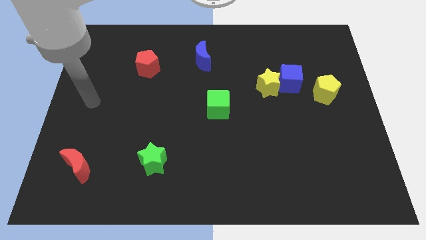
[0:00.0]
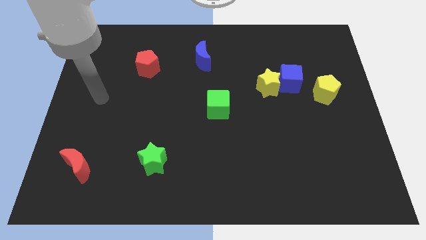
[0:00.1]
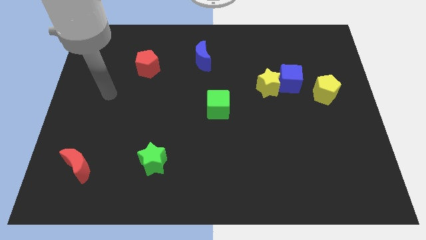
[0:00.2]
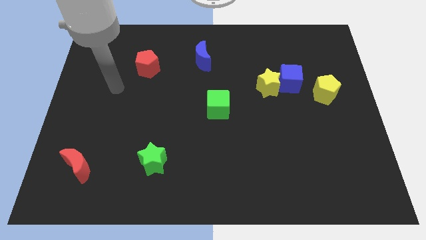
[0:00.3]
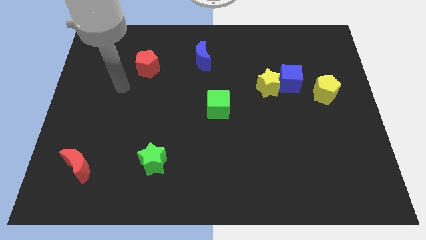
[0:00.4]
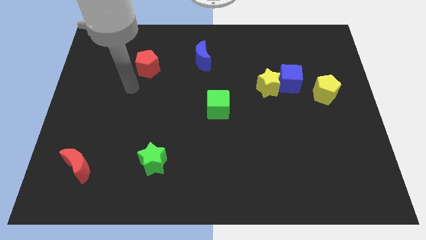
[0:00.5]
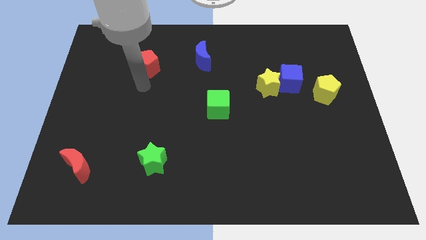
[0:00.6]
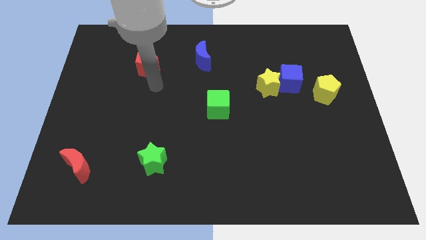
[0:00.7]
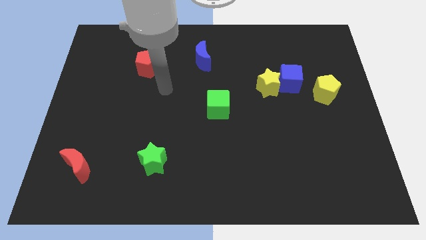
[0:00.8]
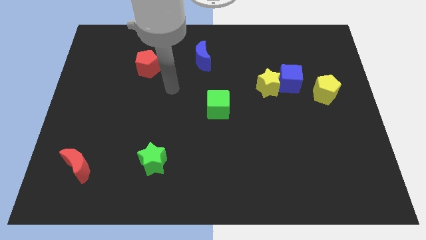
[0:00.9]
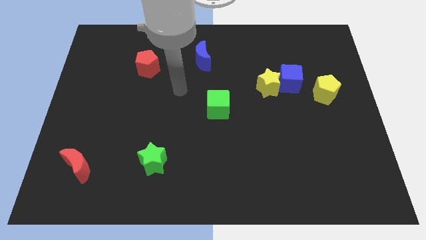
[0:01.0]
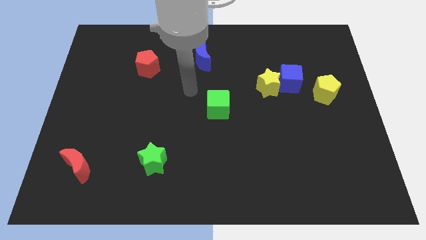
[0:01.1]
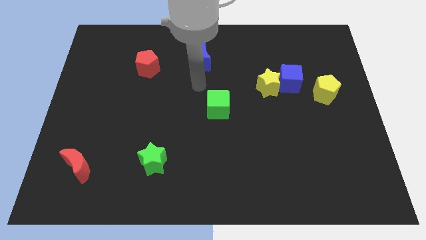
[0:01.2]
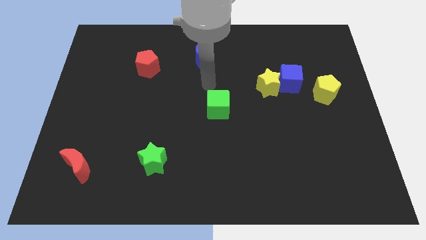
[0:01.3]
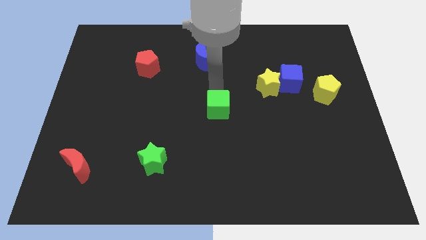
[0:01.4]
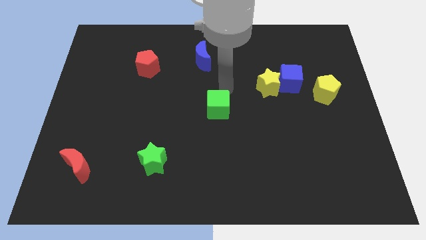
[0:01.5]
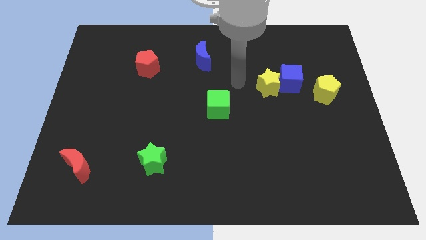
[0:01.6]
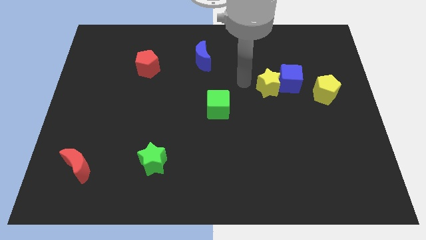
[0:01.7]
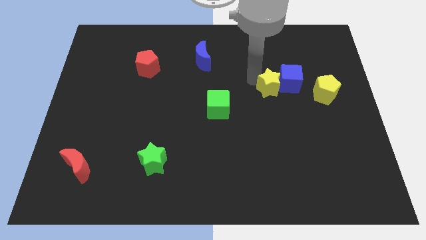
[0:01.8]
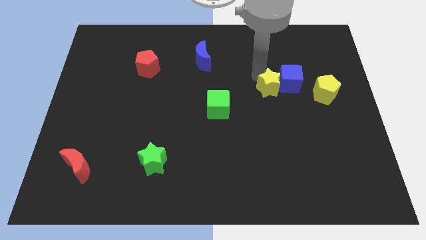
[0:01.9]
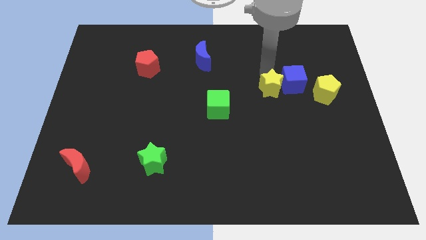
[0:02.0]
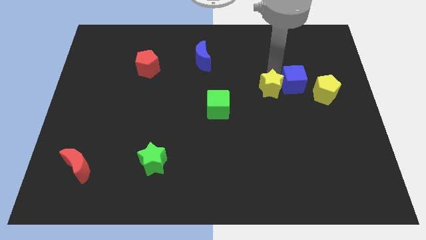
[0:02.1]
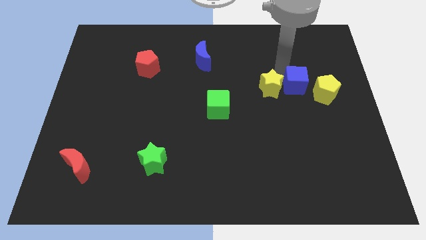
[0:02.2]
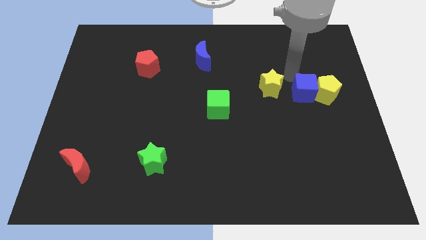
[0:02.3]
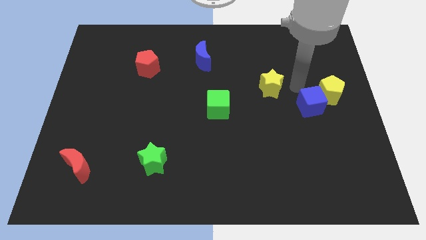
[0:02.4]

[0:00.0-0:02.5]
move the yellow star away from the blue cube

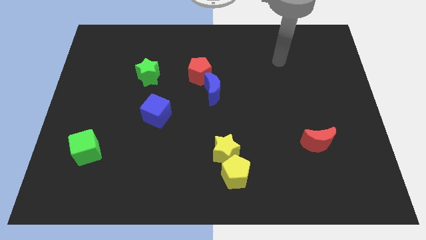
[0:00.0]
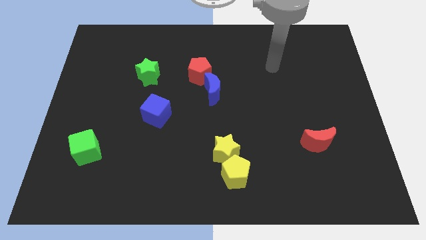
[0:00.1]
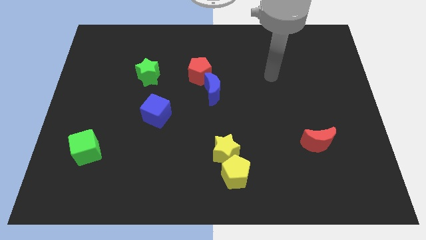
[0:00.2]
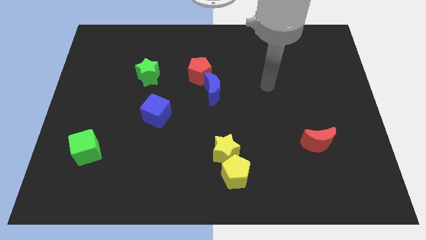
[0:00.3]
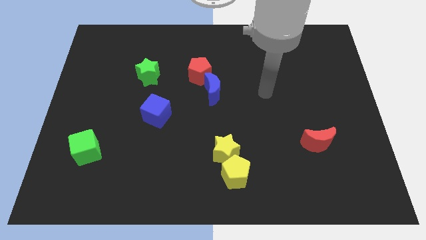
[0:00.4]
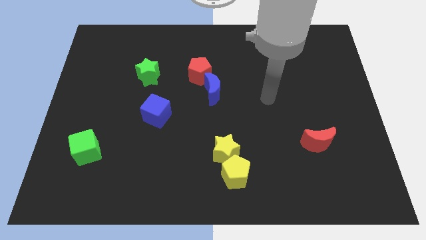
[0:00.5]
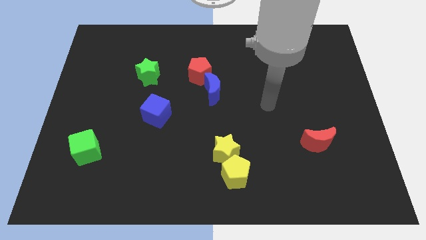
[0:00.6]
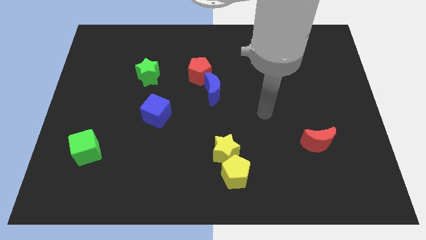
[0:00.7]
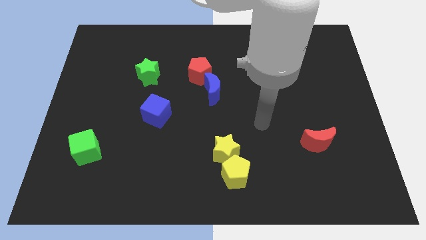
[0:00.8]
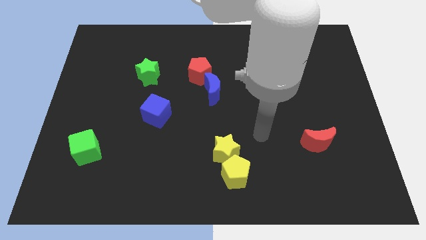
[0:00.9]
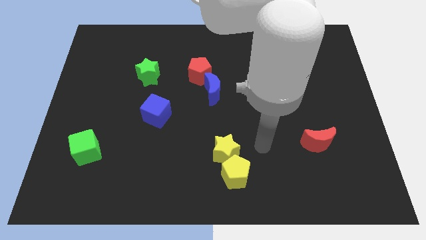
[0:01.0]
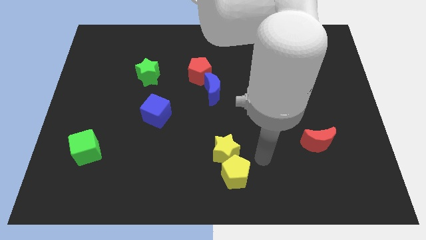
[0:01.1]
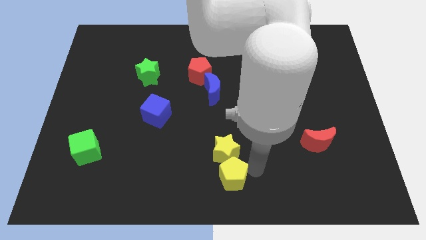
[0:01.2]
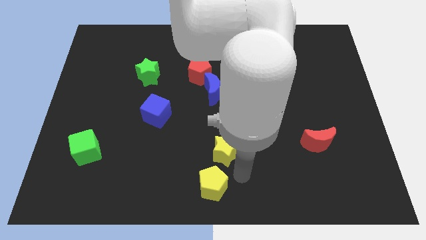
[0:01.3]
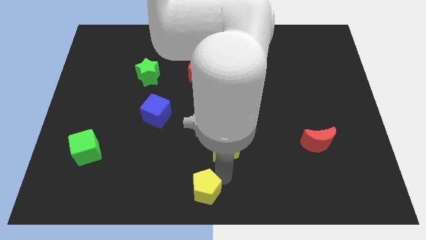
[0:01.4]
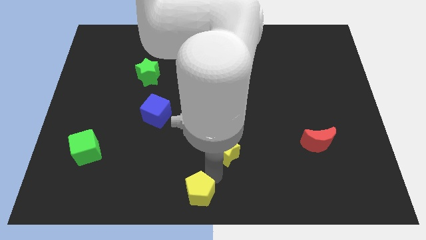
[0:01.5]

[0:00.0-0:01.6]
move the yellow star away from the yellow pentagon

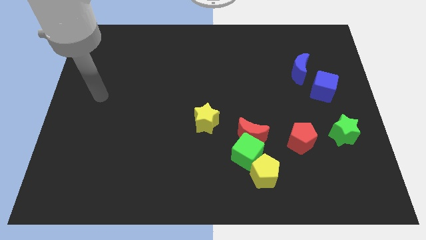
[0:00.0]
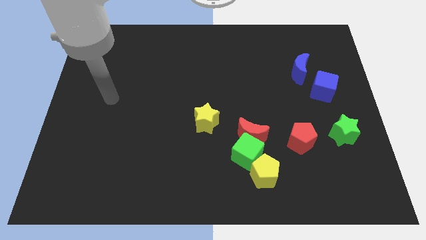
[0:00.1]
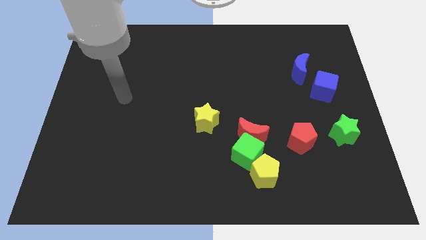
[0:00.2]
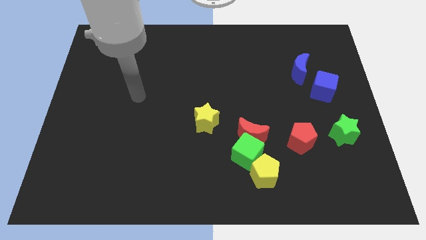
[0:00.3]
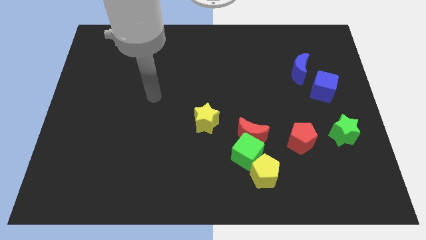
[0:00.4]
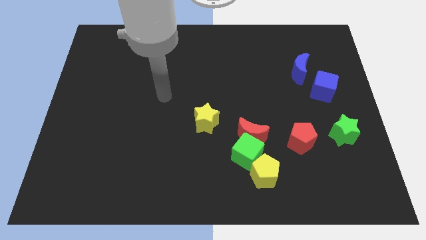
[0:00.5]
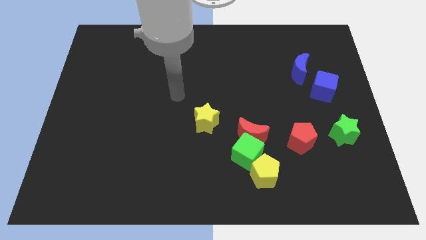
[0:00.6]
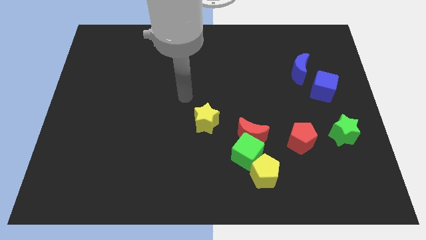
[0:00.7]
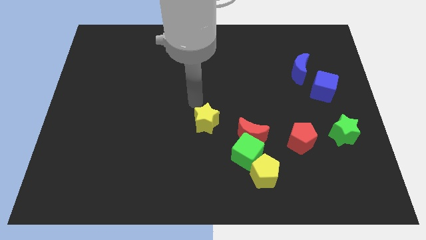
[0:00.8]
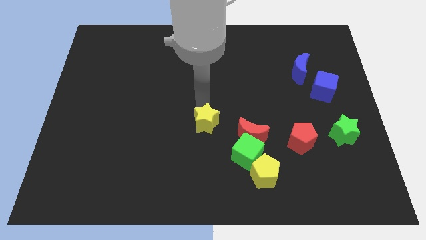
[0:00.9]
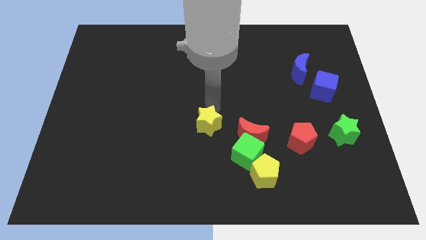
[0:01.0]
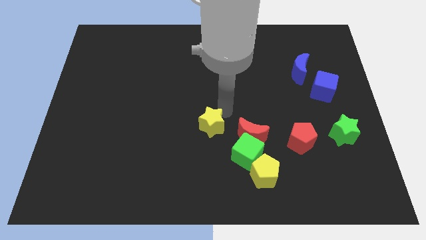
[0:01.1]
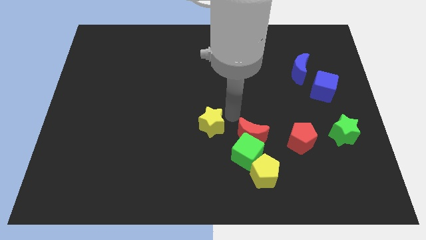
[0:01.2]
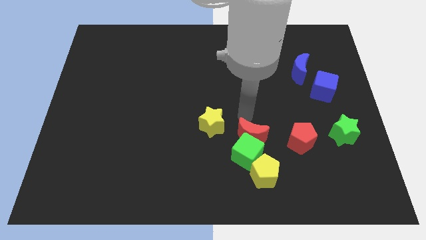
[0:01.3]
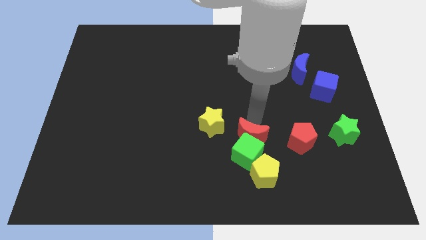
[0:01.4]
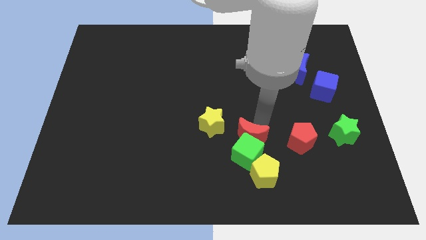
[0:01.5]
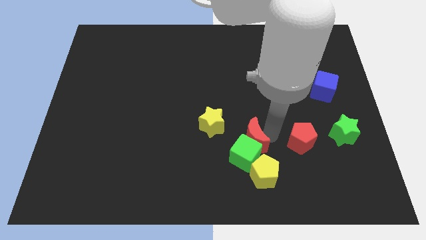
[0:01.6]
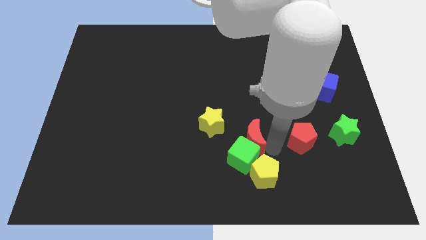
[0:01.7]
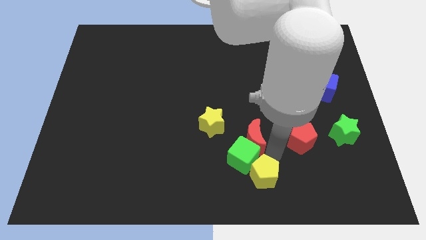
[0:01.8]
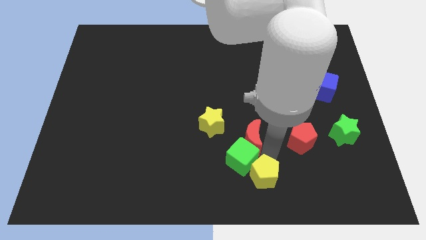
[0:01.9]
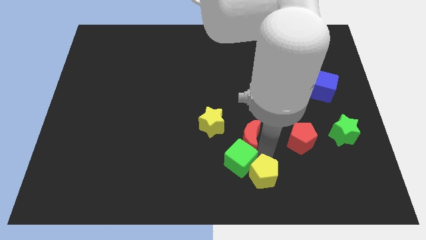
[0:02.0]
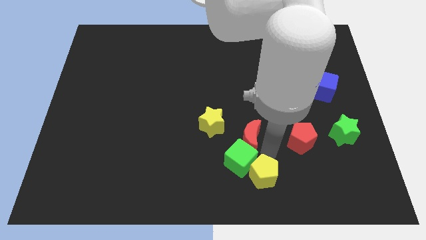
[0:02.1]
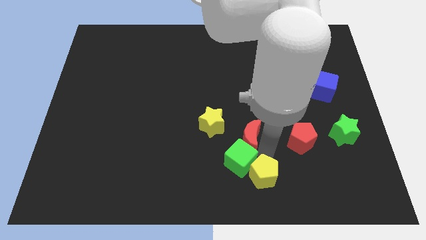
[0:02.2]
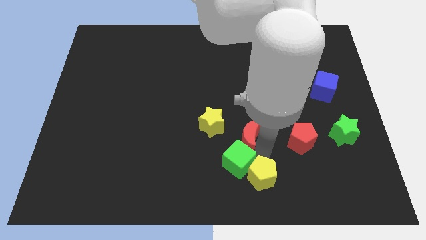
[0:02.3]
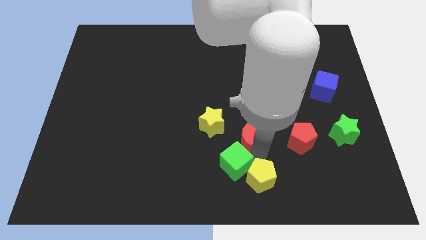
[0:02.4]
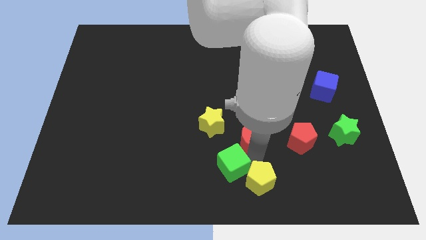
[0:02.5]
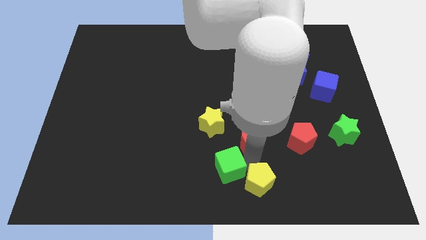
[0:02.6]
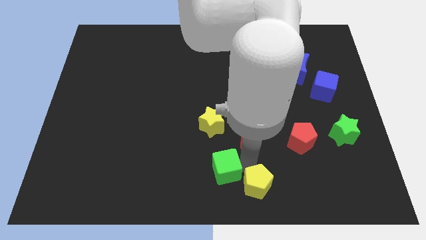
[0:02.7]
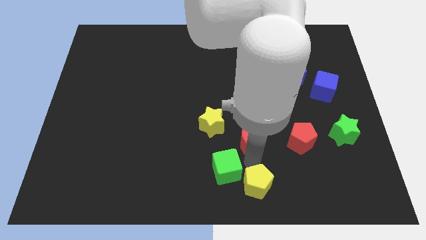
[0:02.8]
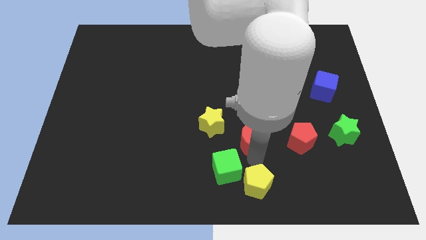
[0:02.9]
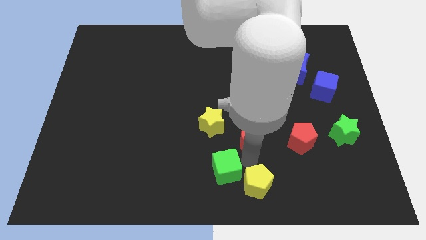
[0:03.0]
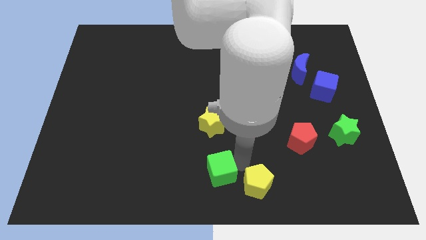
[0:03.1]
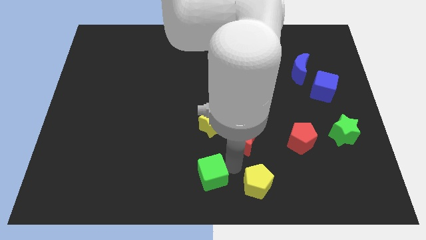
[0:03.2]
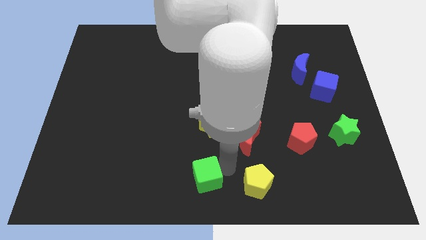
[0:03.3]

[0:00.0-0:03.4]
pull the green cube apart from the red moon and yellow pentagon

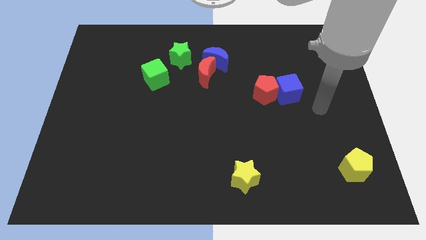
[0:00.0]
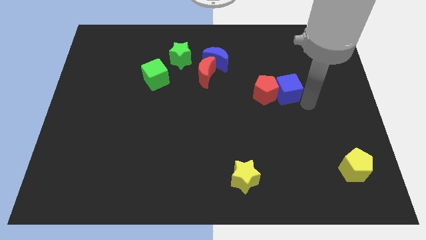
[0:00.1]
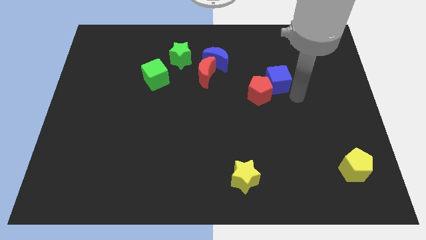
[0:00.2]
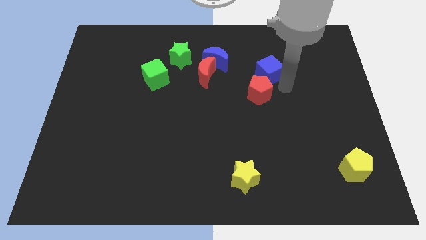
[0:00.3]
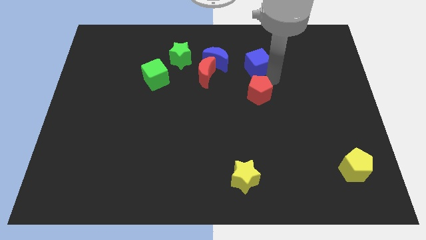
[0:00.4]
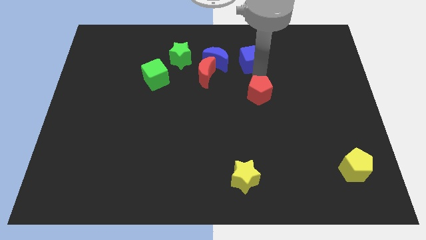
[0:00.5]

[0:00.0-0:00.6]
separate the red pentagon from the blue cube

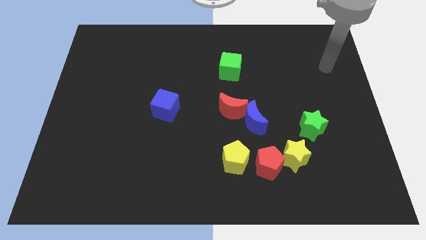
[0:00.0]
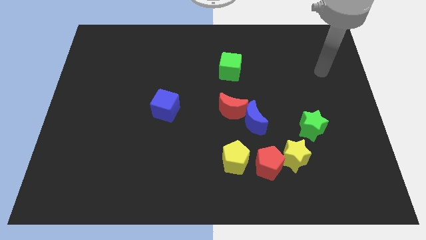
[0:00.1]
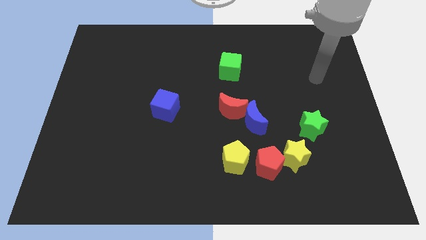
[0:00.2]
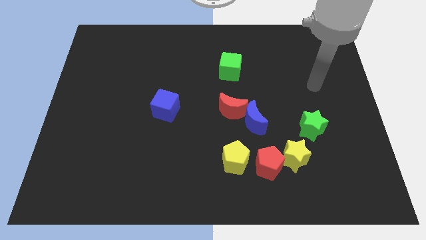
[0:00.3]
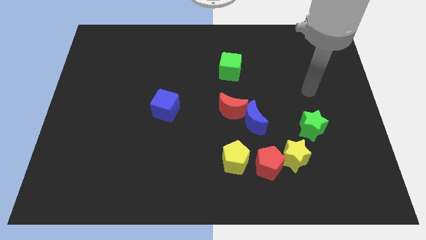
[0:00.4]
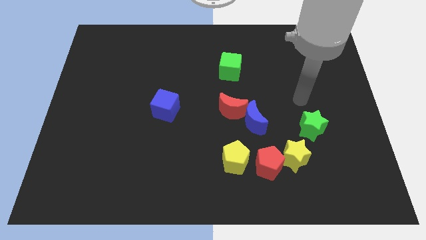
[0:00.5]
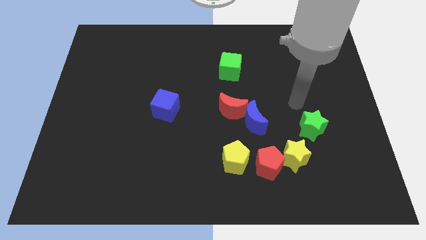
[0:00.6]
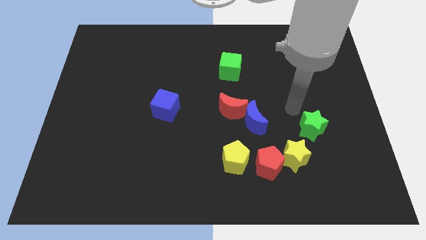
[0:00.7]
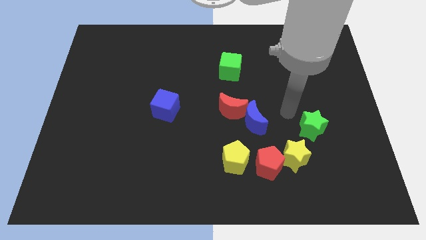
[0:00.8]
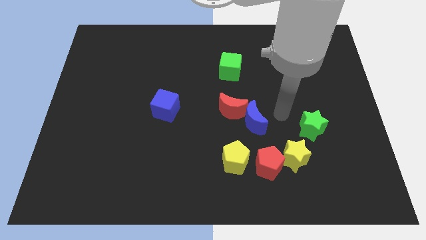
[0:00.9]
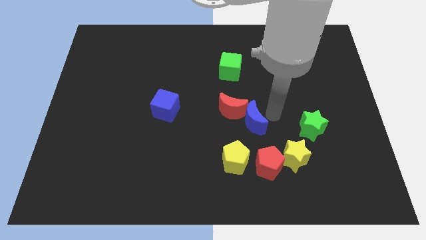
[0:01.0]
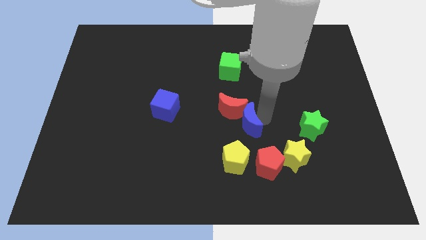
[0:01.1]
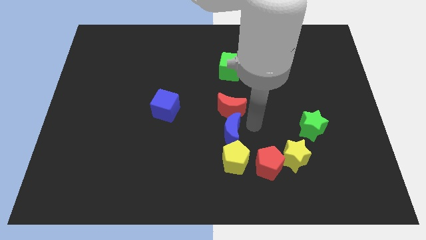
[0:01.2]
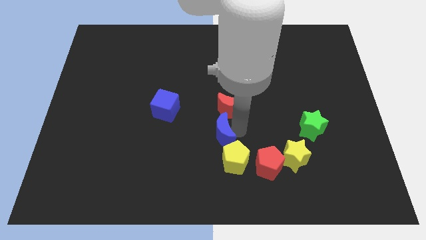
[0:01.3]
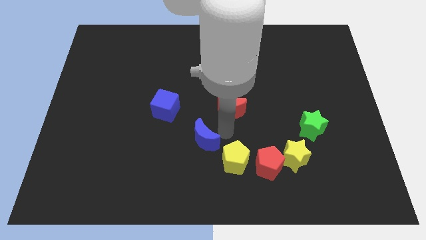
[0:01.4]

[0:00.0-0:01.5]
pull the red moon apart from the blue moon
